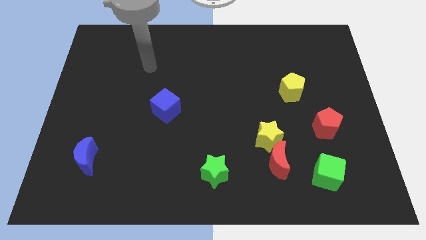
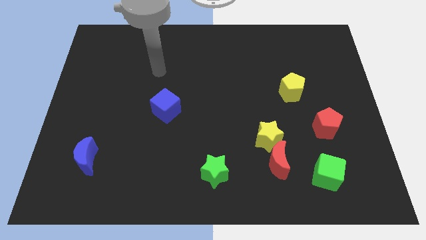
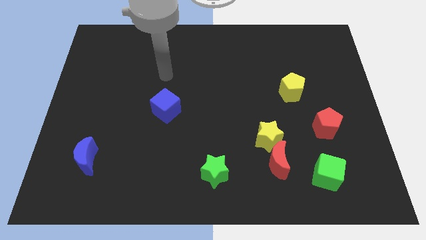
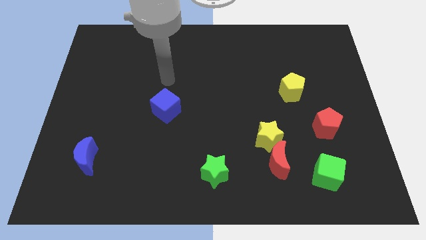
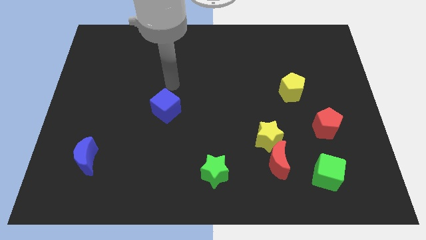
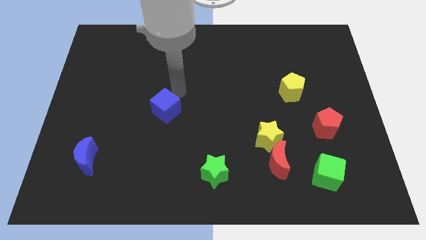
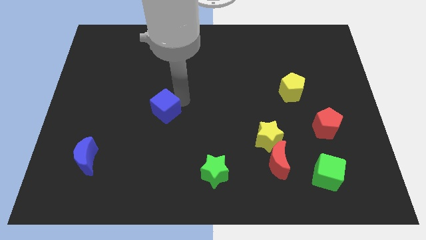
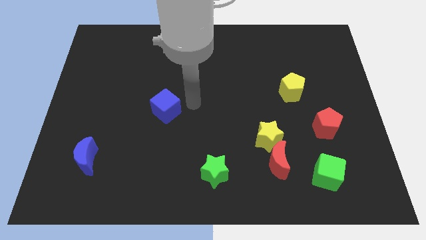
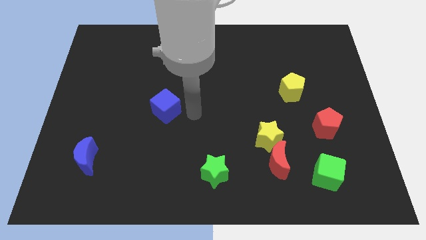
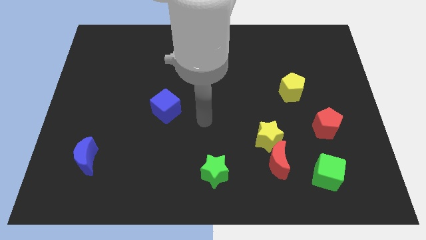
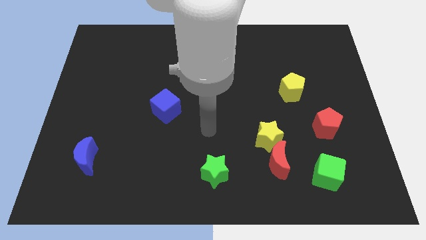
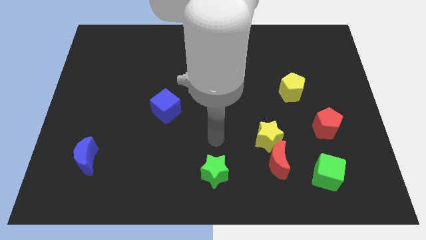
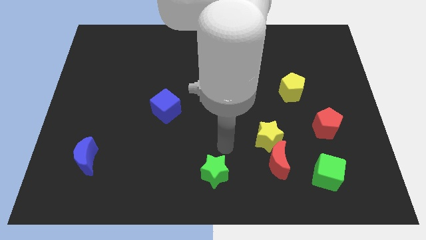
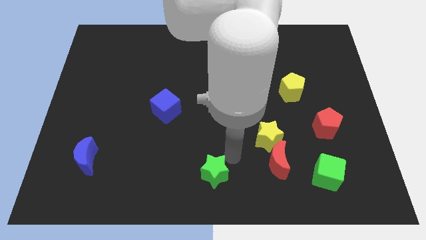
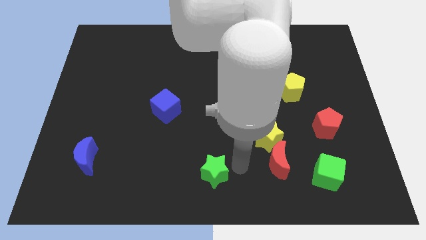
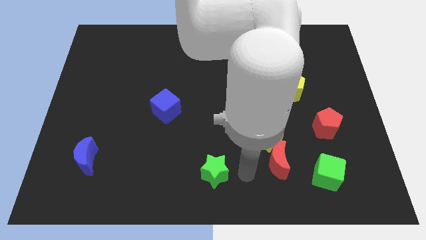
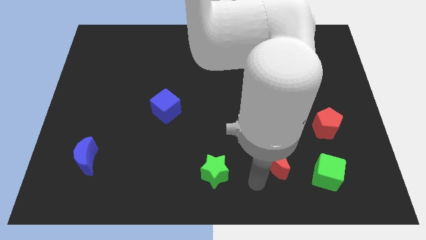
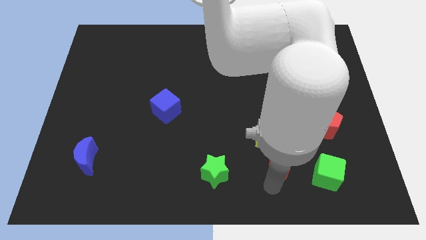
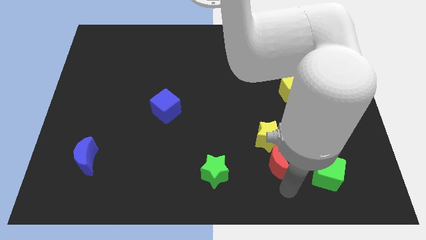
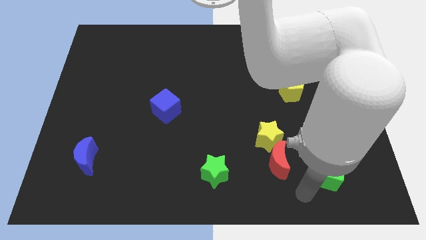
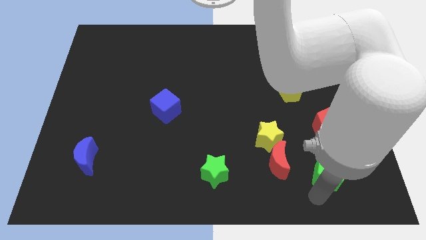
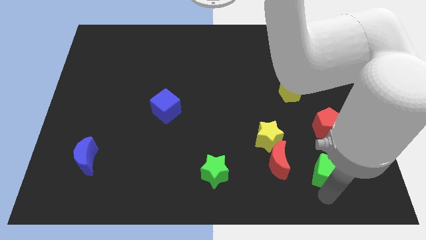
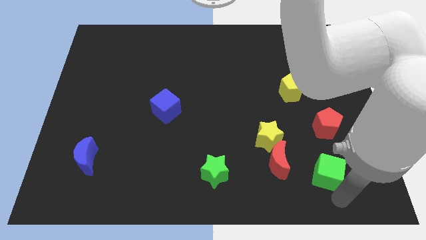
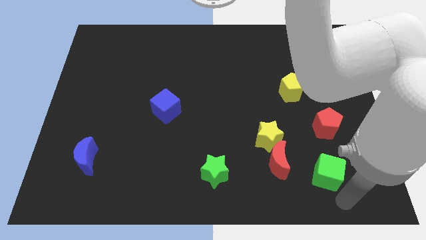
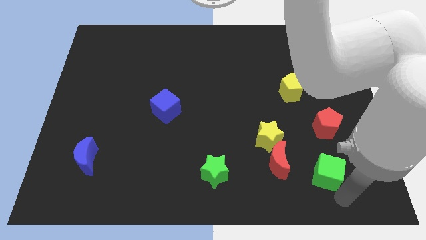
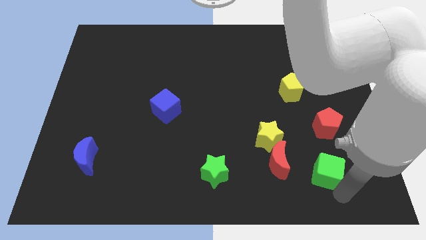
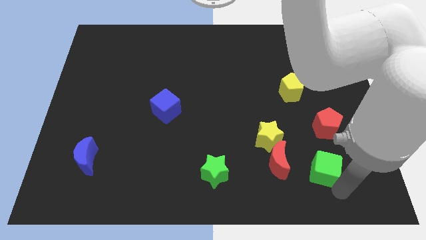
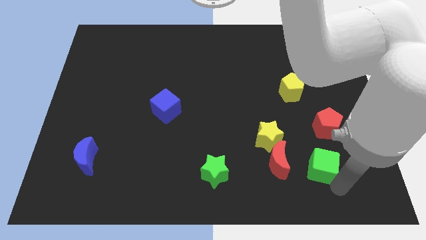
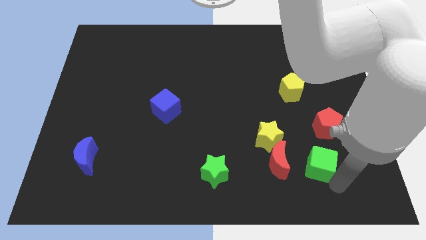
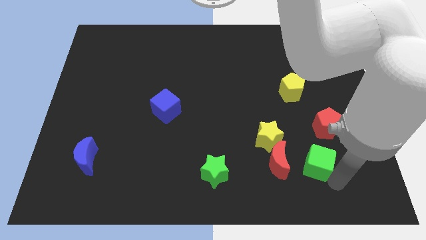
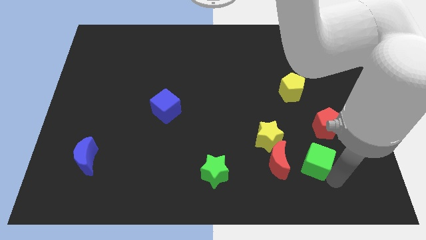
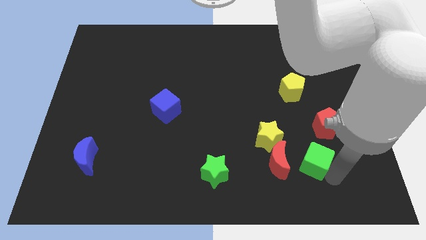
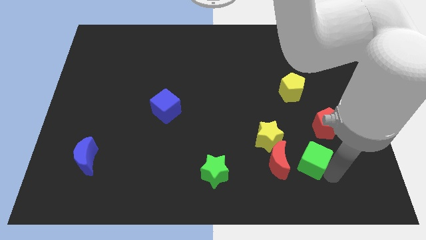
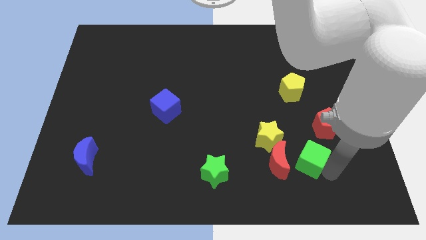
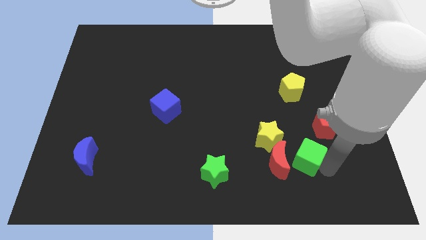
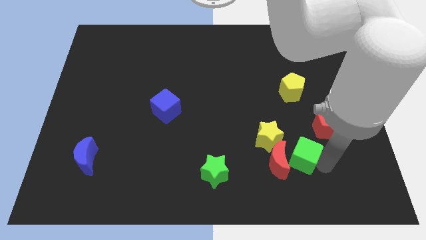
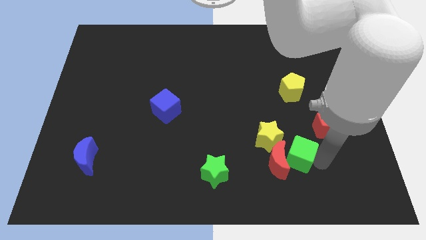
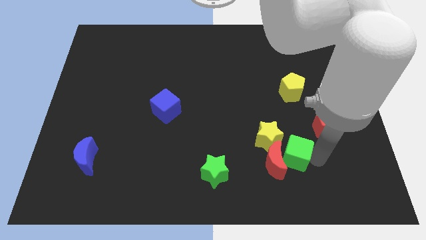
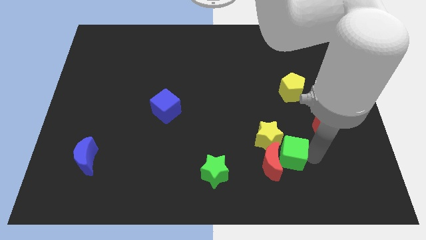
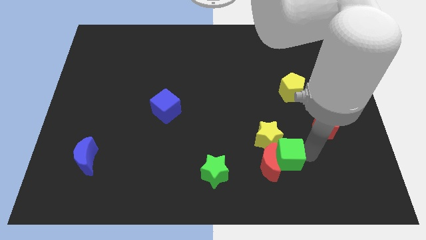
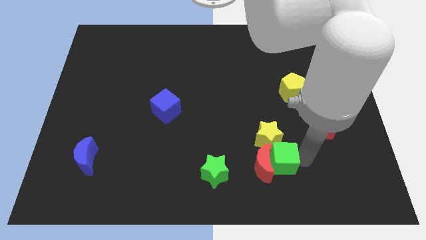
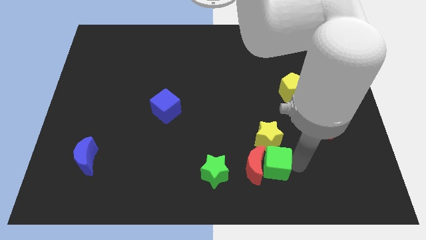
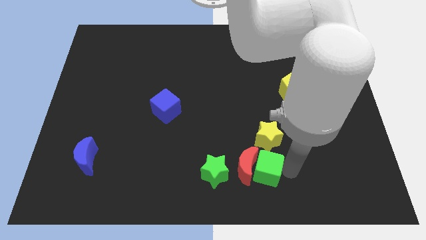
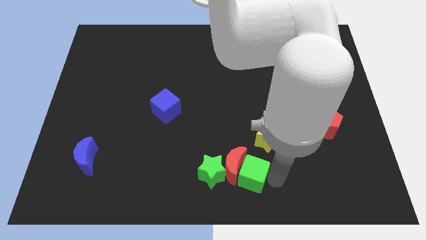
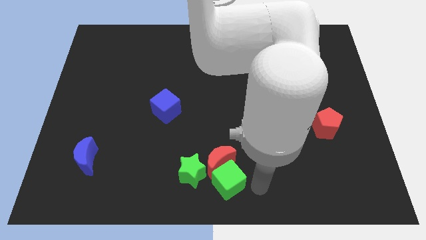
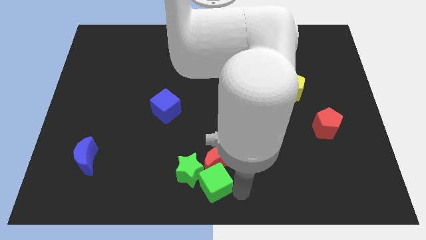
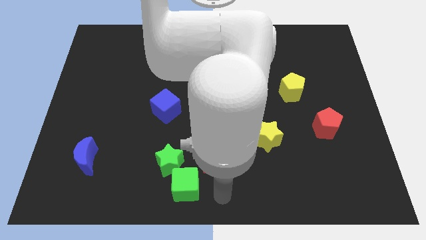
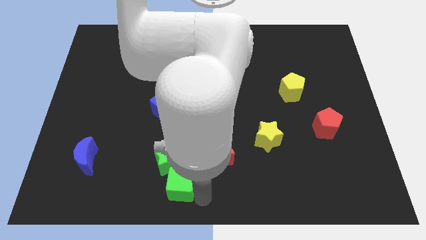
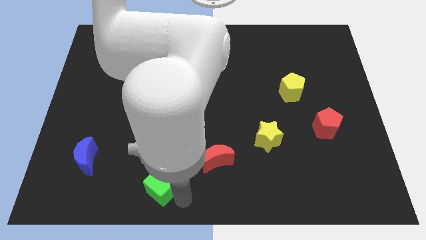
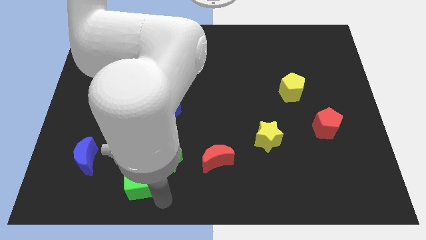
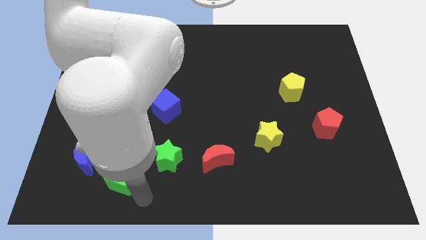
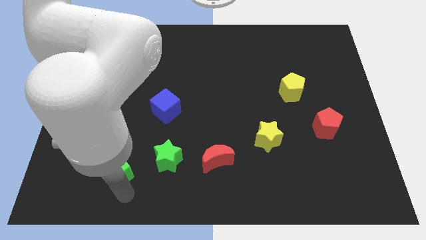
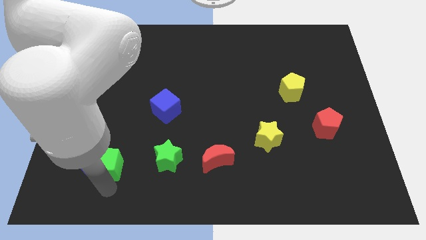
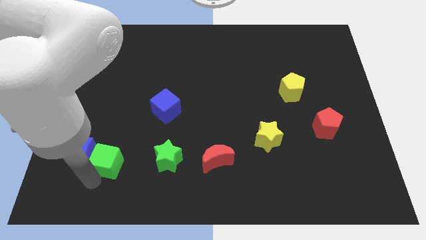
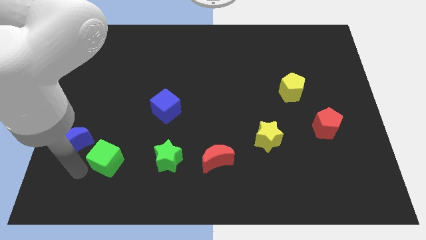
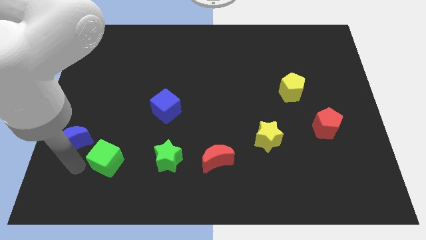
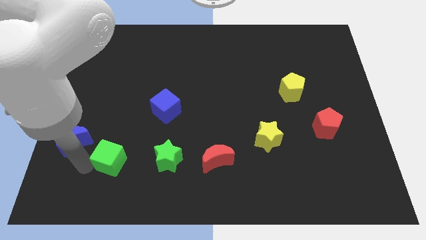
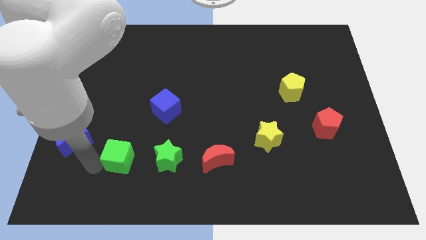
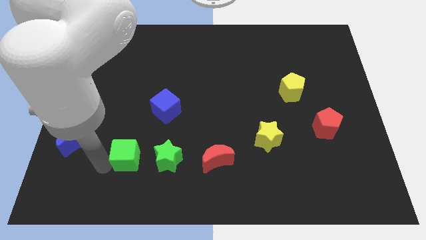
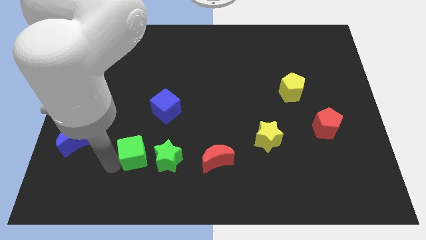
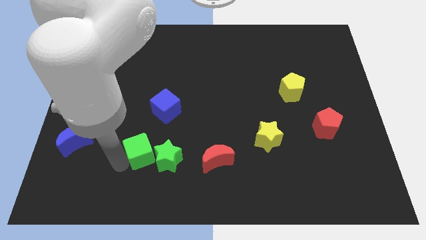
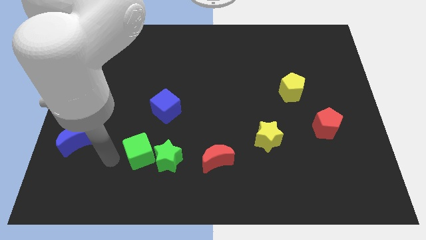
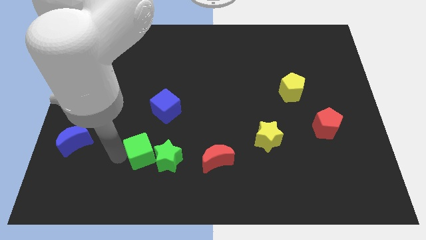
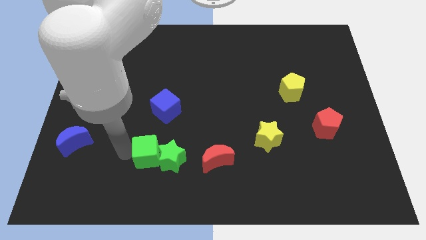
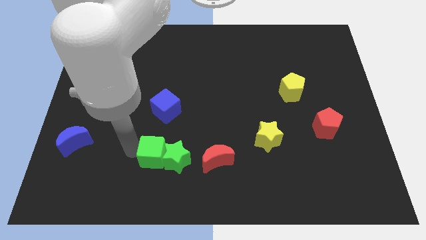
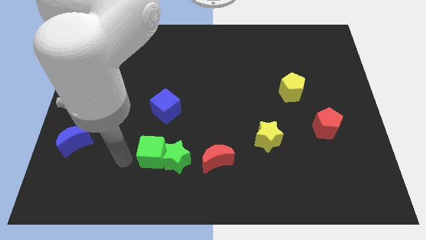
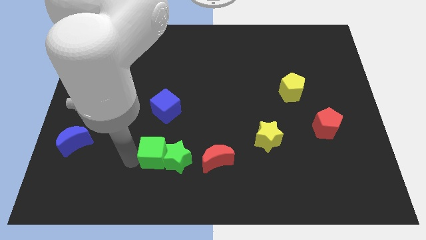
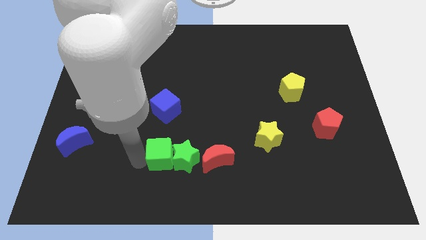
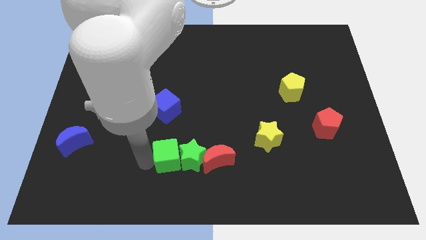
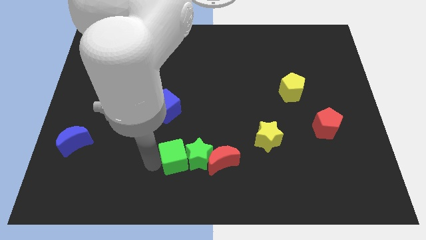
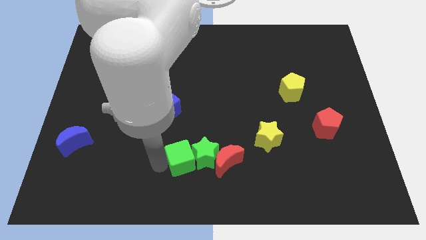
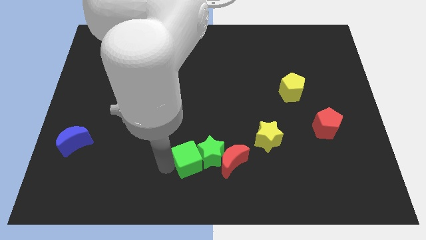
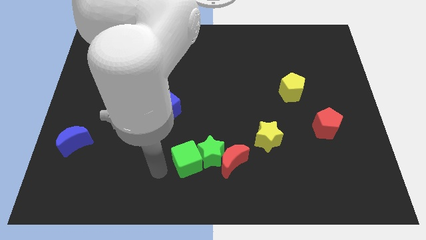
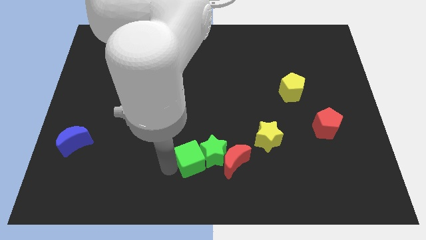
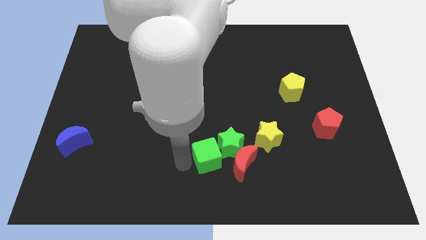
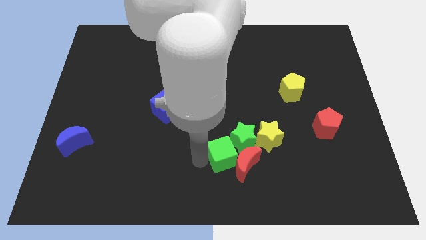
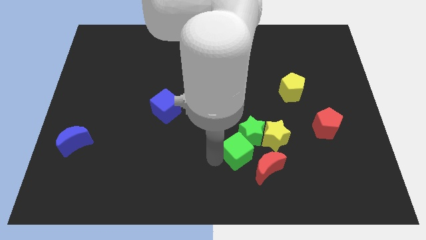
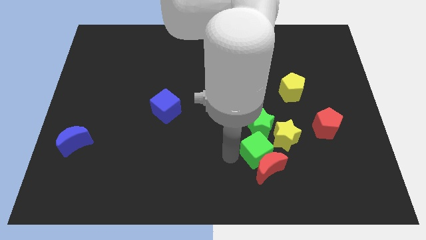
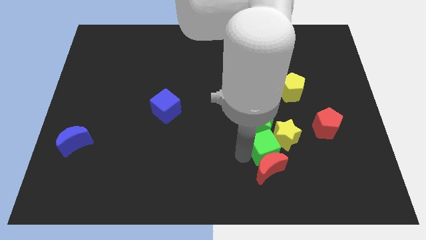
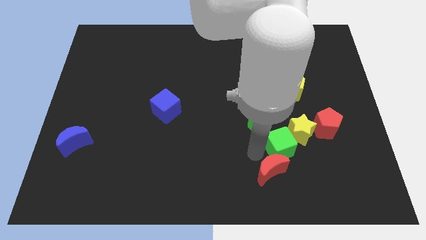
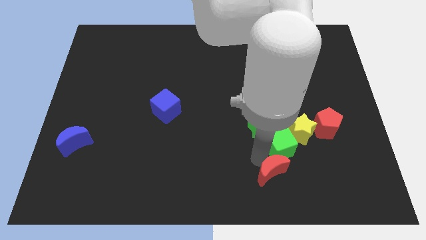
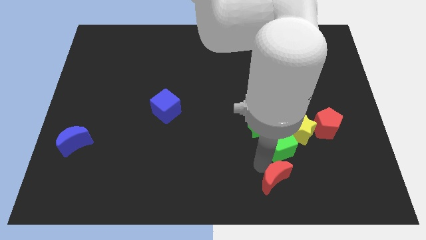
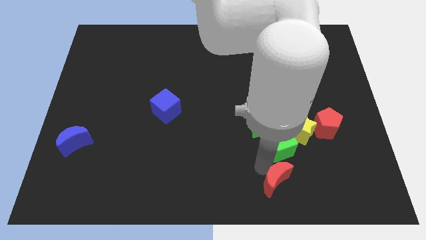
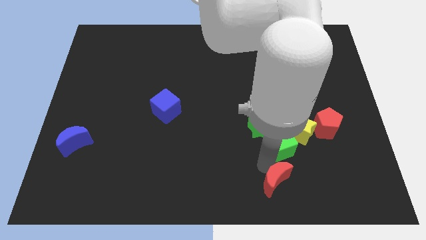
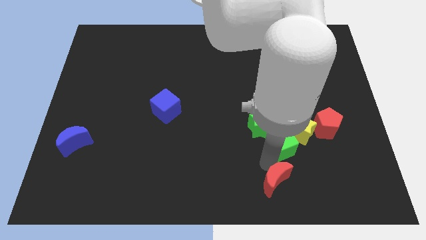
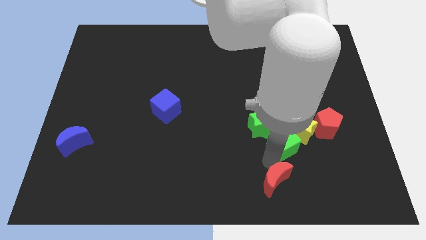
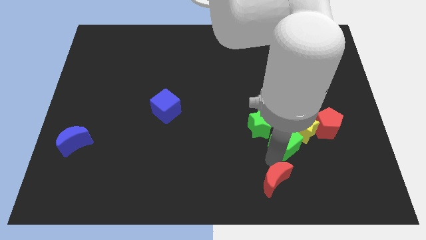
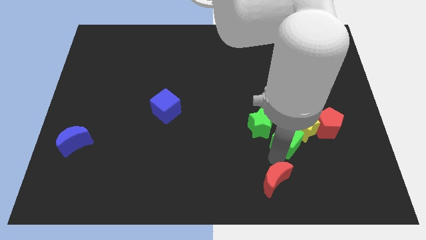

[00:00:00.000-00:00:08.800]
slide the green cube below the yellow pentagon
